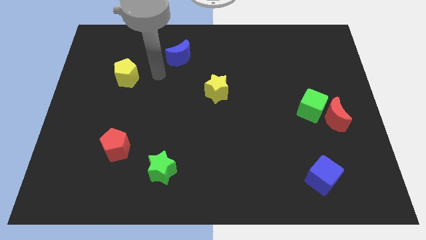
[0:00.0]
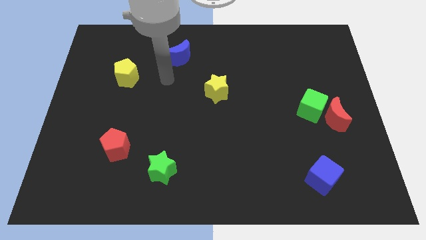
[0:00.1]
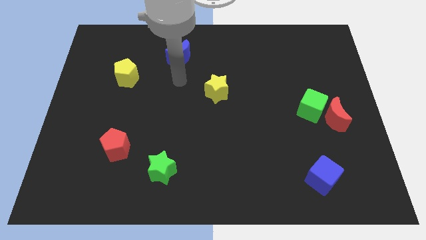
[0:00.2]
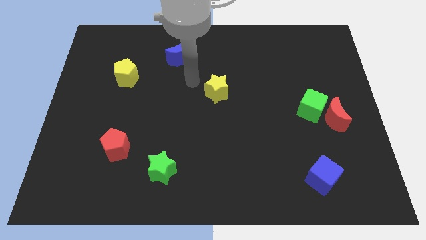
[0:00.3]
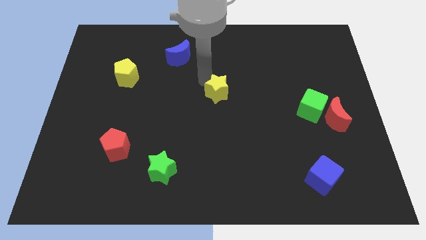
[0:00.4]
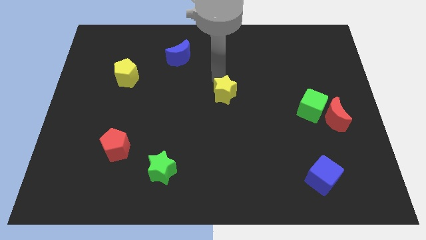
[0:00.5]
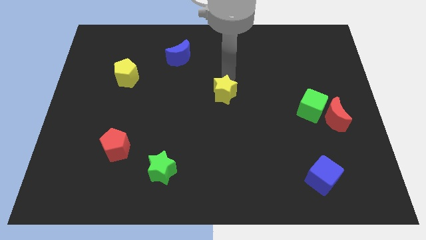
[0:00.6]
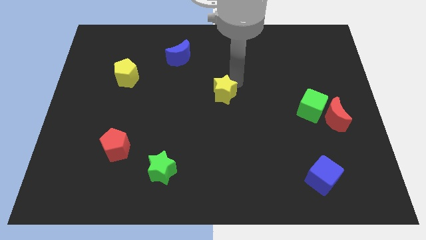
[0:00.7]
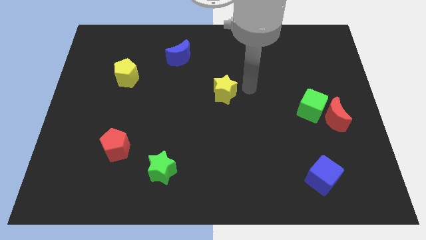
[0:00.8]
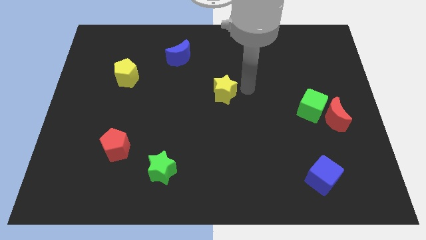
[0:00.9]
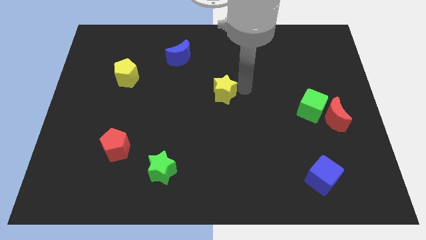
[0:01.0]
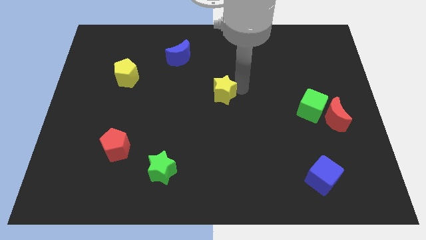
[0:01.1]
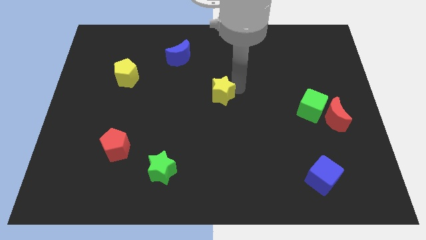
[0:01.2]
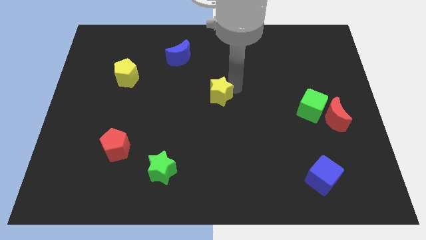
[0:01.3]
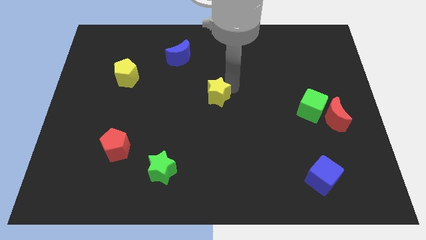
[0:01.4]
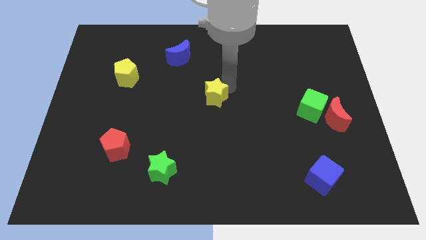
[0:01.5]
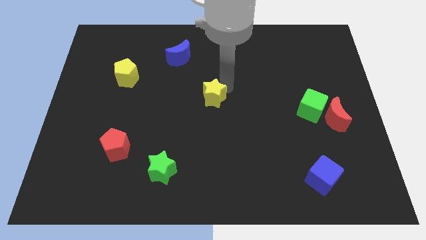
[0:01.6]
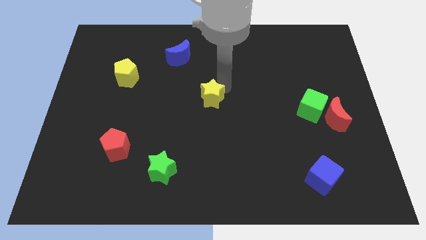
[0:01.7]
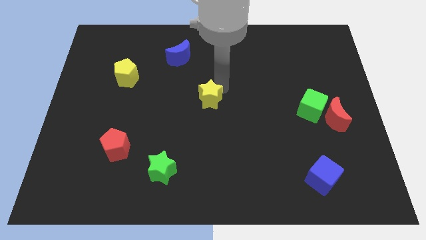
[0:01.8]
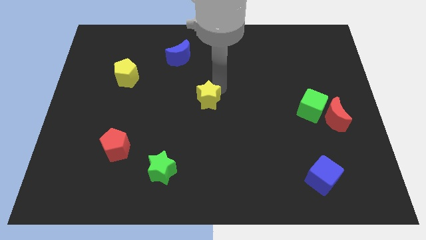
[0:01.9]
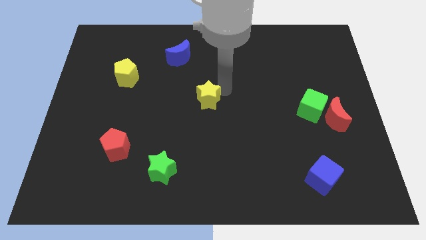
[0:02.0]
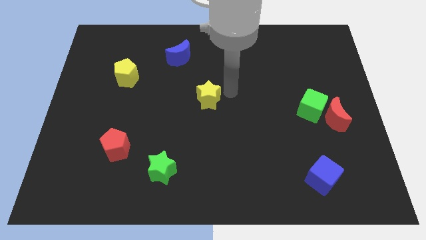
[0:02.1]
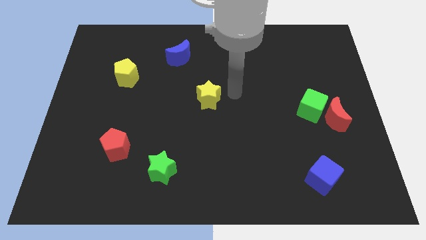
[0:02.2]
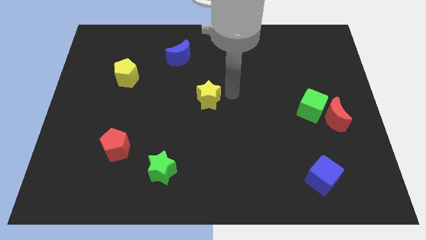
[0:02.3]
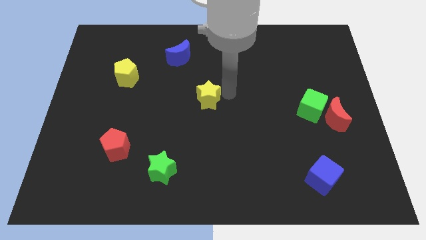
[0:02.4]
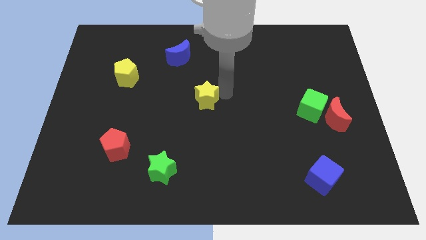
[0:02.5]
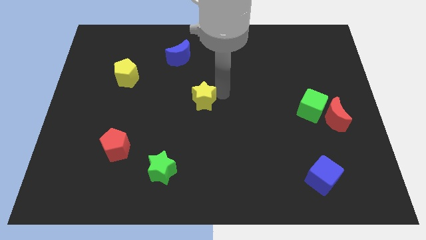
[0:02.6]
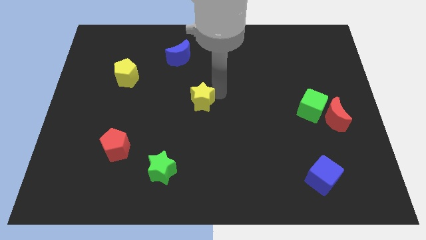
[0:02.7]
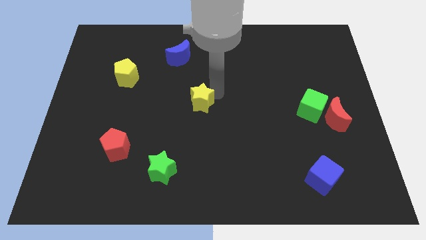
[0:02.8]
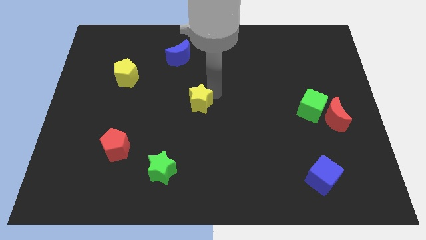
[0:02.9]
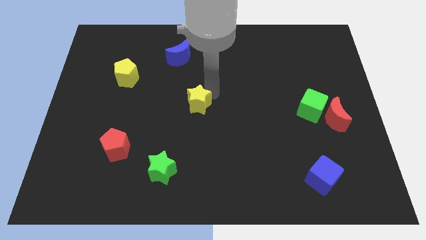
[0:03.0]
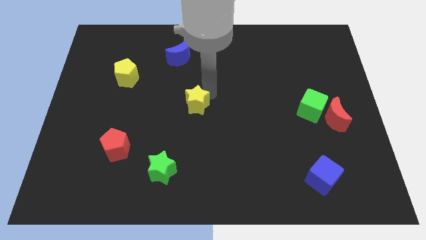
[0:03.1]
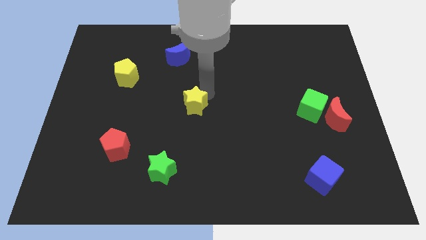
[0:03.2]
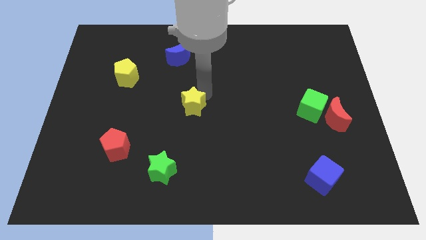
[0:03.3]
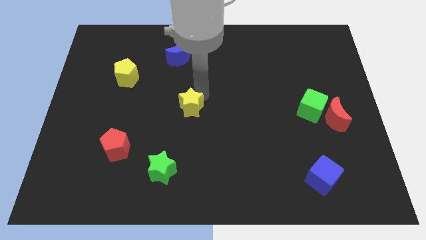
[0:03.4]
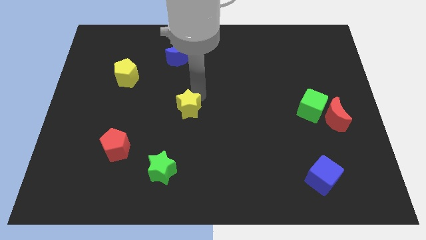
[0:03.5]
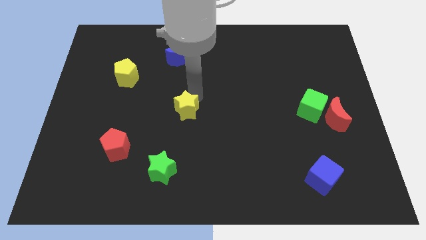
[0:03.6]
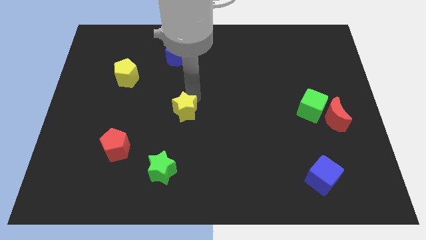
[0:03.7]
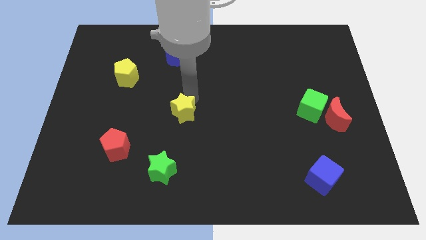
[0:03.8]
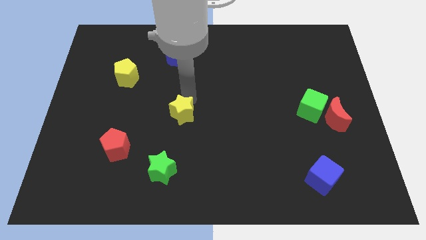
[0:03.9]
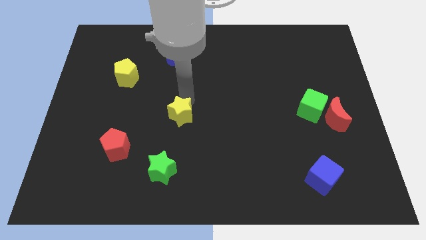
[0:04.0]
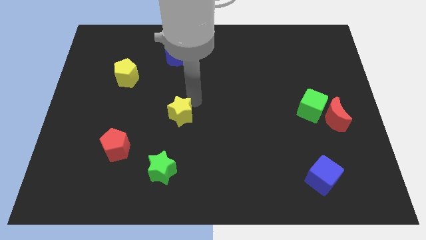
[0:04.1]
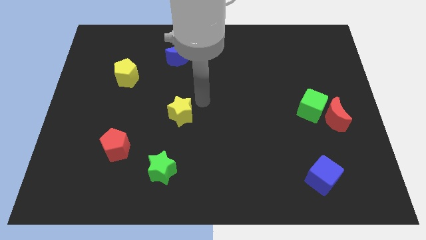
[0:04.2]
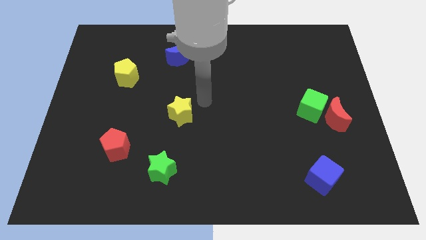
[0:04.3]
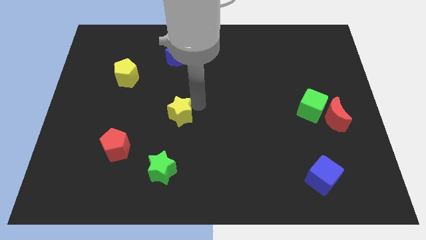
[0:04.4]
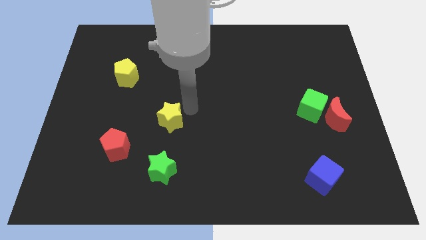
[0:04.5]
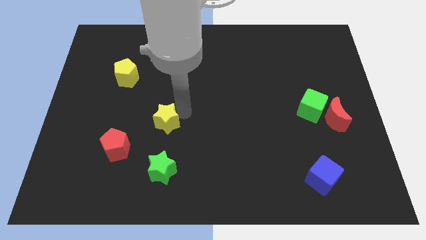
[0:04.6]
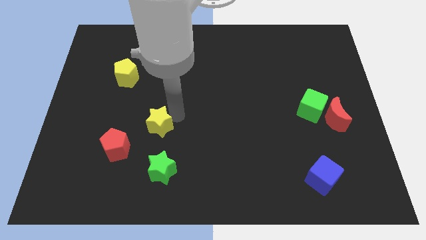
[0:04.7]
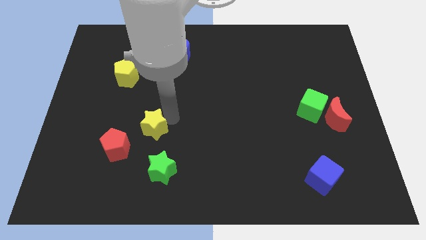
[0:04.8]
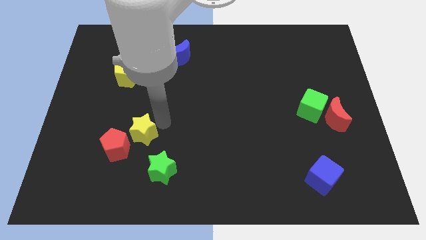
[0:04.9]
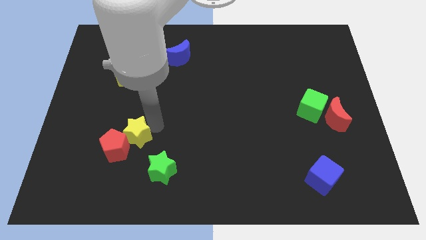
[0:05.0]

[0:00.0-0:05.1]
slide the yellow star towards the red pentagon

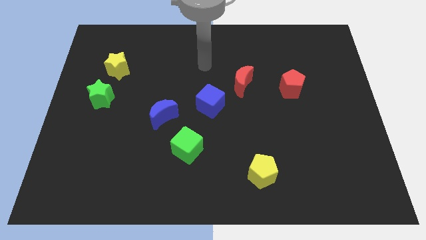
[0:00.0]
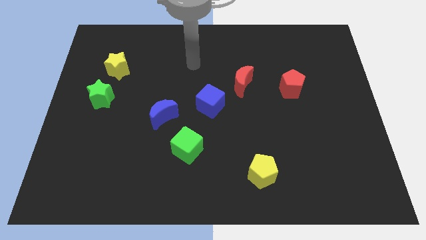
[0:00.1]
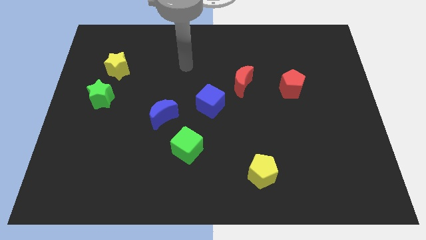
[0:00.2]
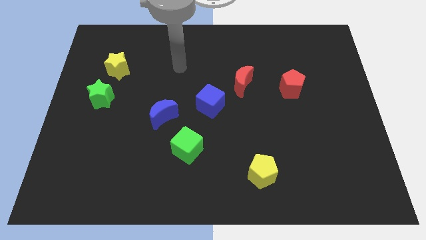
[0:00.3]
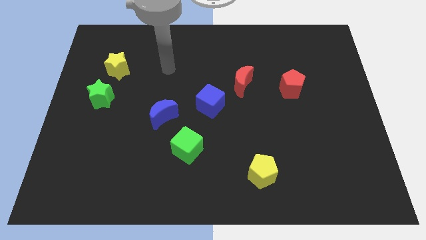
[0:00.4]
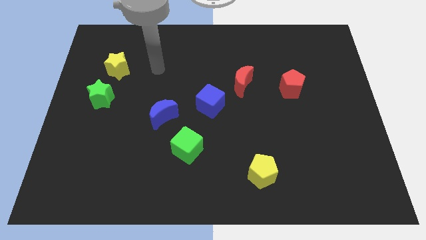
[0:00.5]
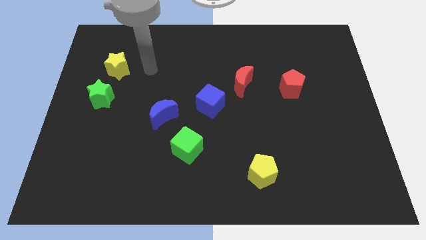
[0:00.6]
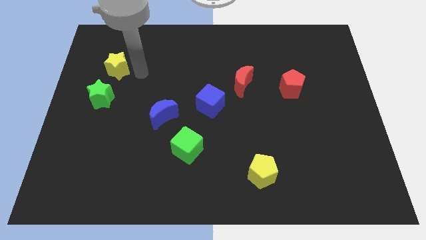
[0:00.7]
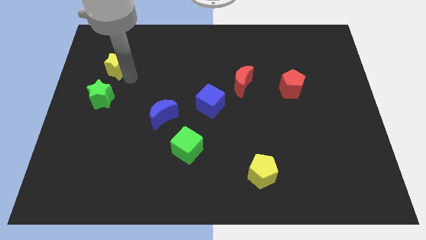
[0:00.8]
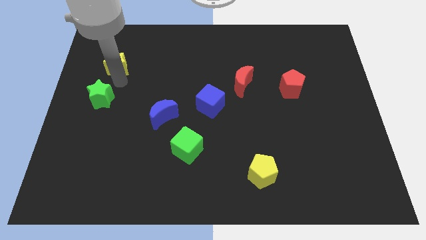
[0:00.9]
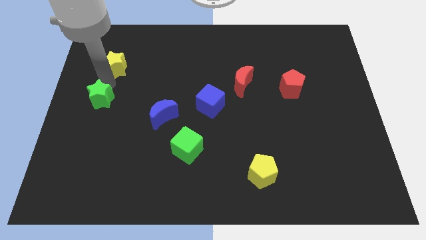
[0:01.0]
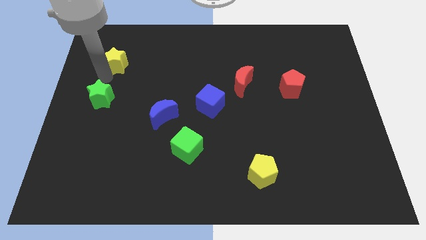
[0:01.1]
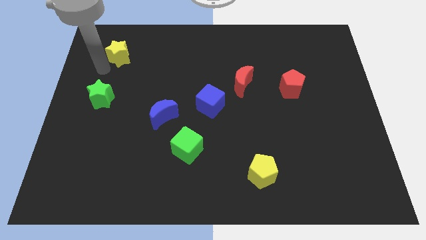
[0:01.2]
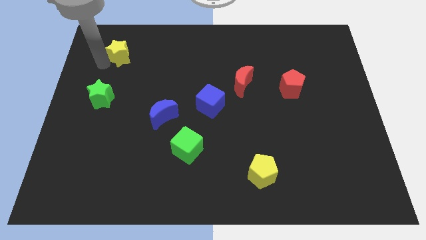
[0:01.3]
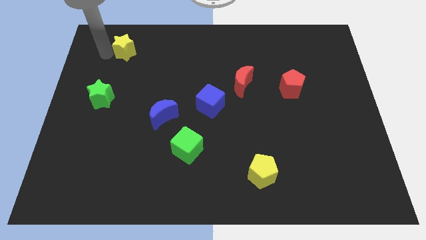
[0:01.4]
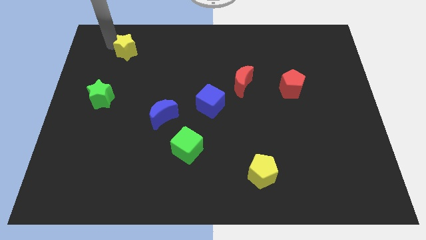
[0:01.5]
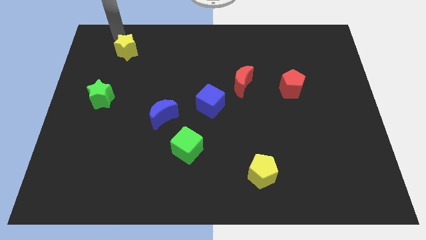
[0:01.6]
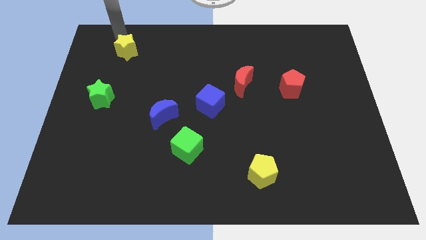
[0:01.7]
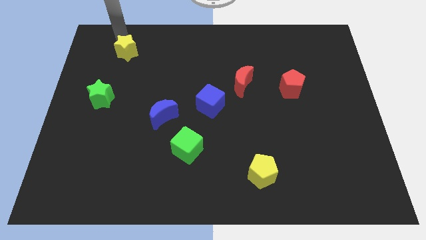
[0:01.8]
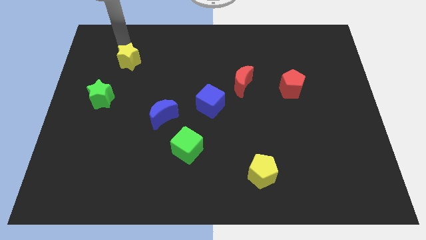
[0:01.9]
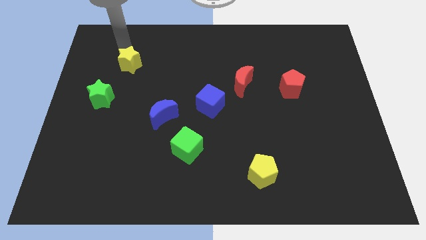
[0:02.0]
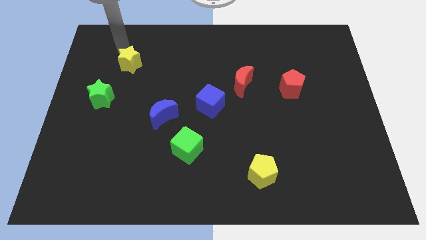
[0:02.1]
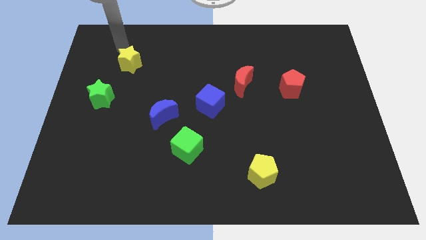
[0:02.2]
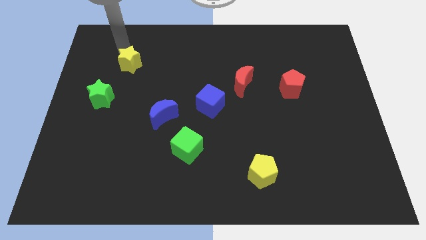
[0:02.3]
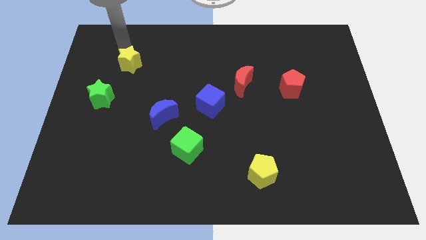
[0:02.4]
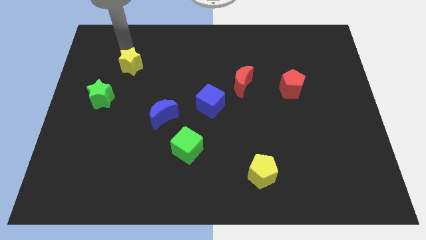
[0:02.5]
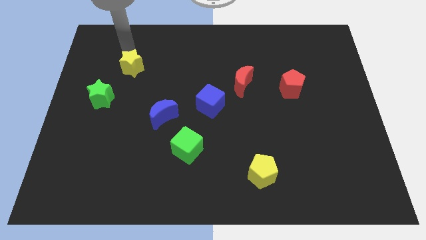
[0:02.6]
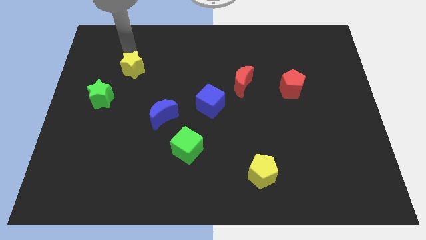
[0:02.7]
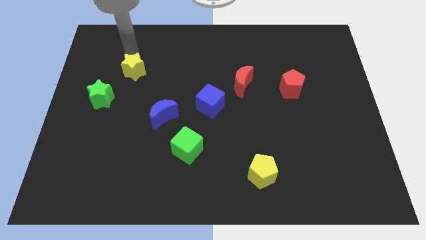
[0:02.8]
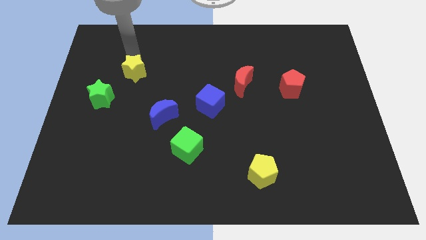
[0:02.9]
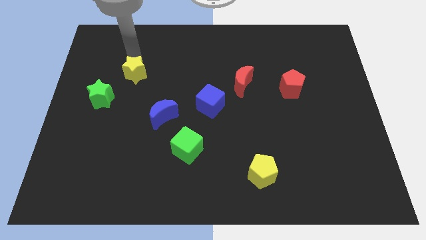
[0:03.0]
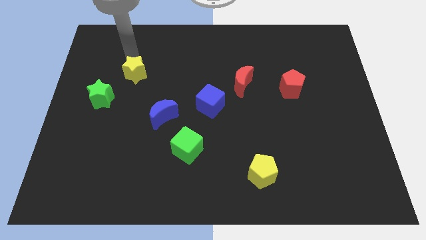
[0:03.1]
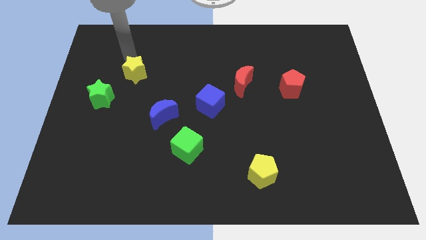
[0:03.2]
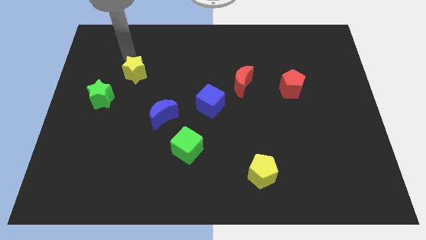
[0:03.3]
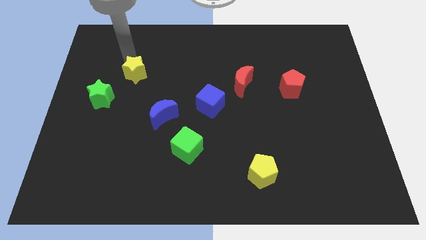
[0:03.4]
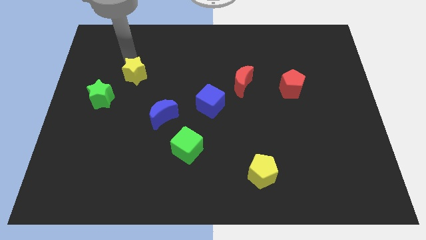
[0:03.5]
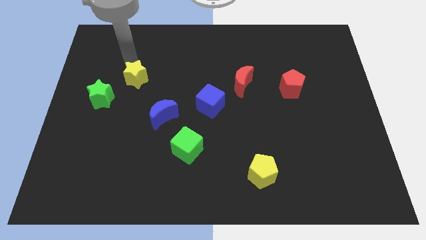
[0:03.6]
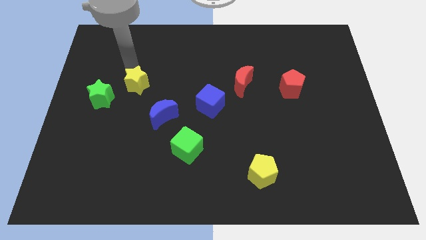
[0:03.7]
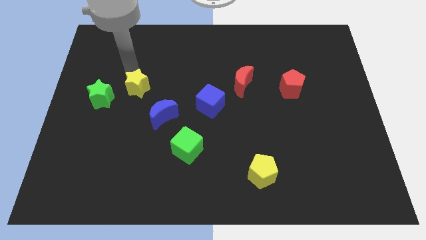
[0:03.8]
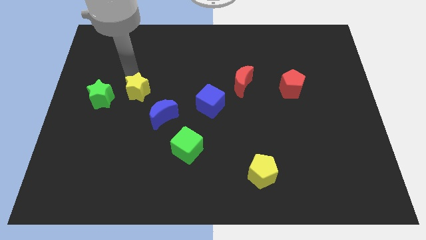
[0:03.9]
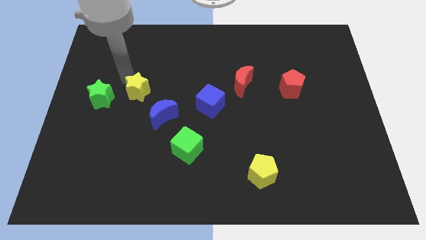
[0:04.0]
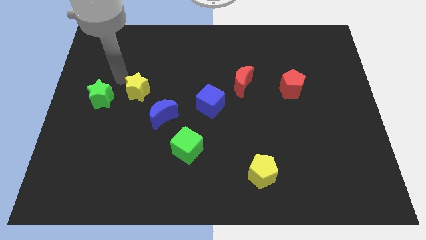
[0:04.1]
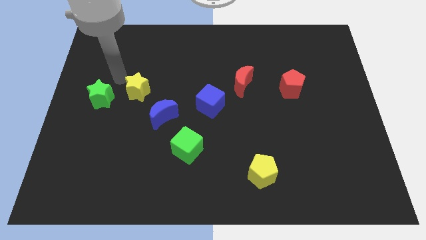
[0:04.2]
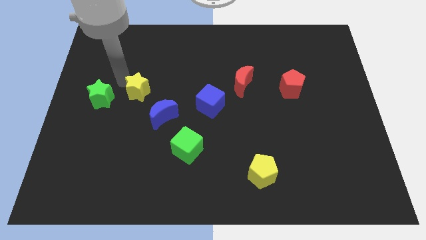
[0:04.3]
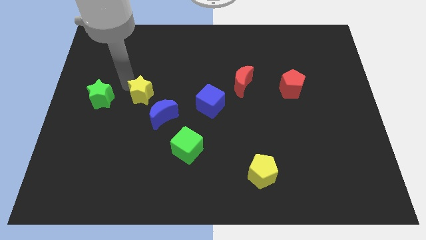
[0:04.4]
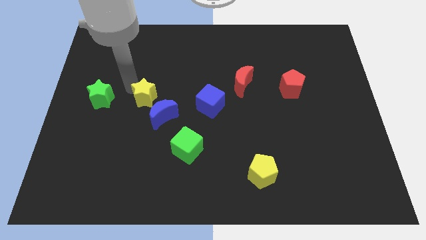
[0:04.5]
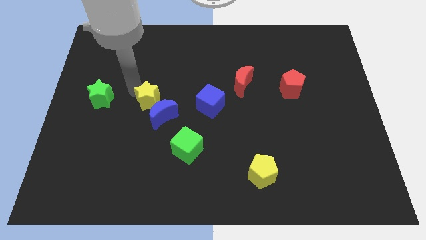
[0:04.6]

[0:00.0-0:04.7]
slide the yellow star towards the blue moon
